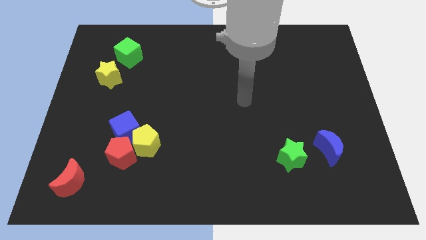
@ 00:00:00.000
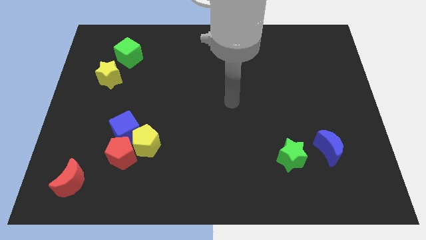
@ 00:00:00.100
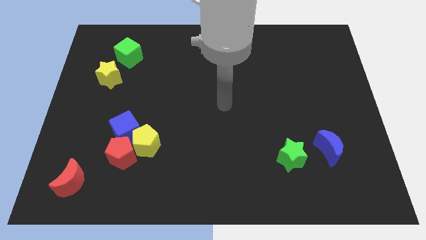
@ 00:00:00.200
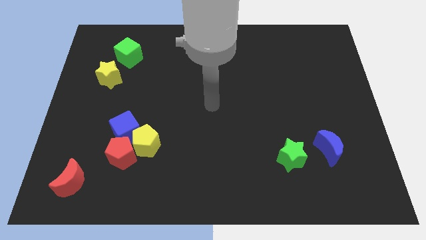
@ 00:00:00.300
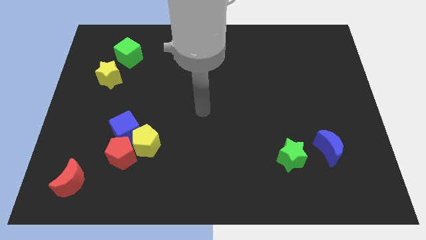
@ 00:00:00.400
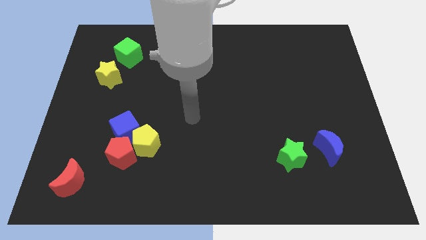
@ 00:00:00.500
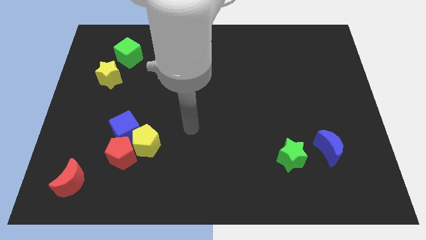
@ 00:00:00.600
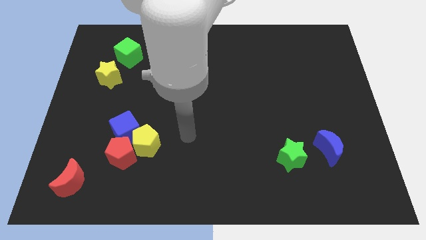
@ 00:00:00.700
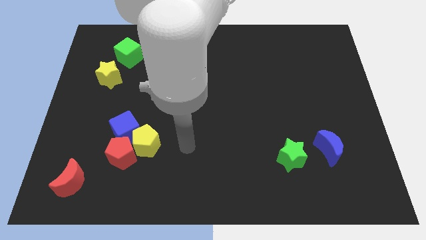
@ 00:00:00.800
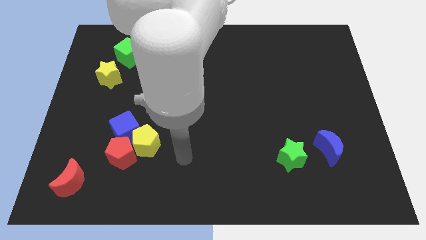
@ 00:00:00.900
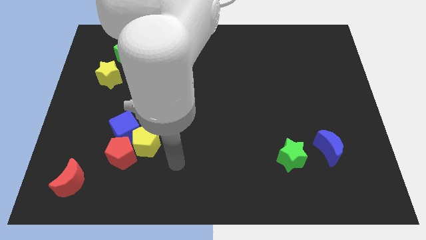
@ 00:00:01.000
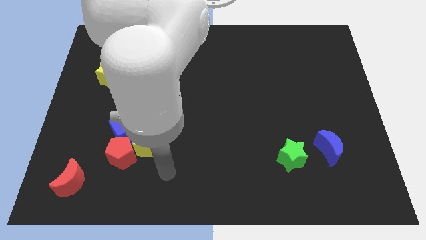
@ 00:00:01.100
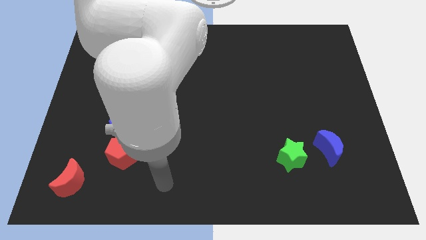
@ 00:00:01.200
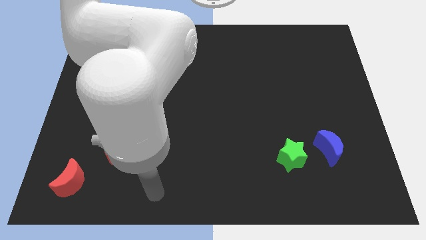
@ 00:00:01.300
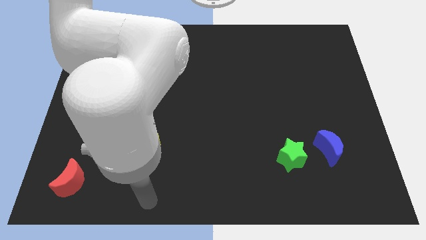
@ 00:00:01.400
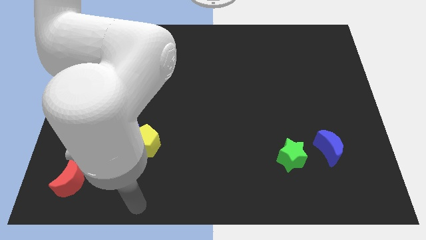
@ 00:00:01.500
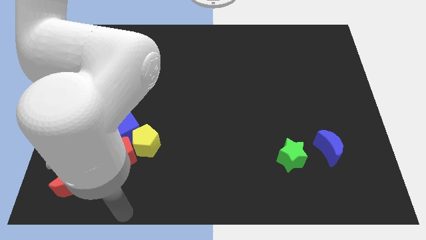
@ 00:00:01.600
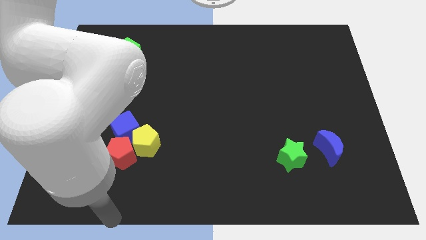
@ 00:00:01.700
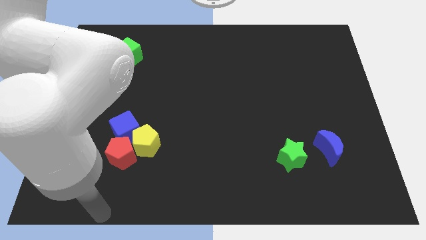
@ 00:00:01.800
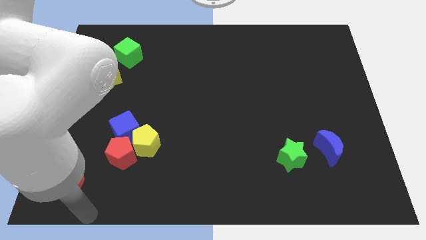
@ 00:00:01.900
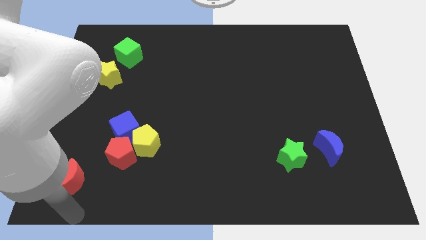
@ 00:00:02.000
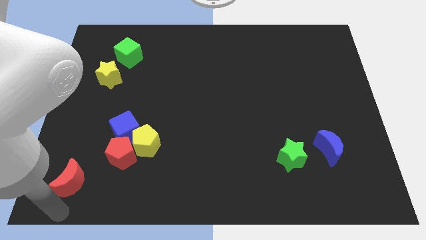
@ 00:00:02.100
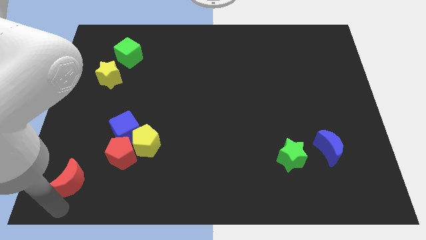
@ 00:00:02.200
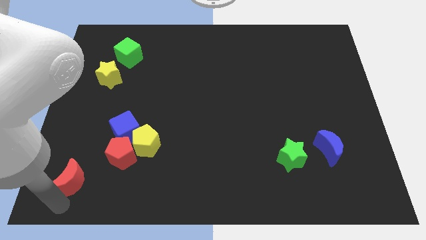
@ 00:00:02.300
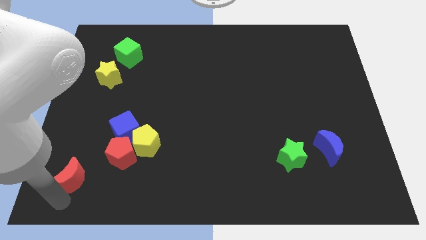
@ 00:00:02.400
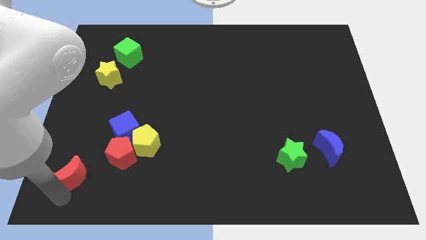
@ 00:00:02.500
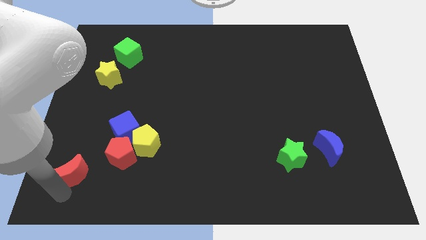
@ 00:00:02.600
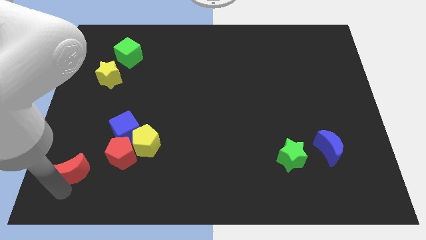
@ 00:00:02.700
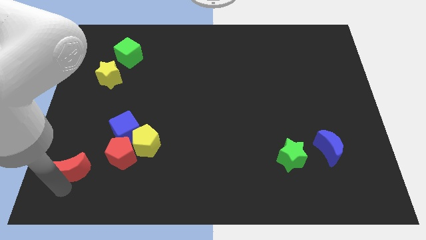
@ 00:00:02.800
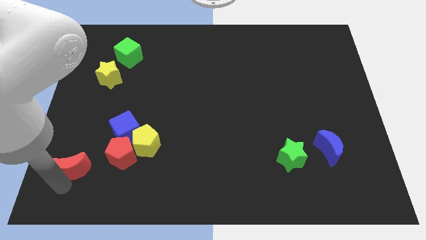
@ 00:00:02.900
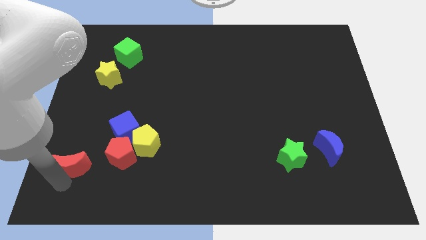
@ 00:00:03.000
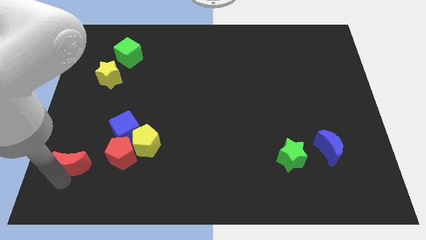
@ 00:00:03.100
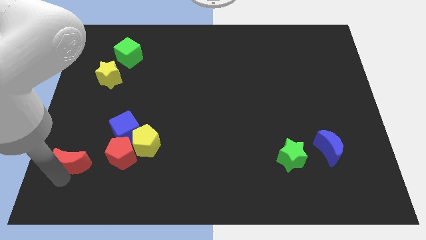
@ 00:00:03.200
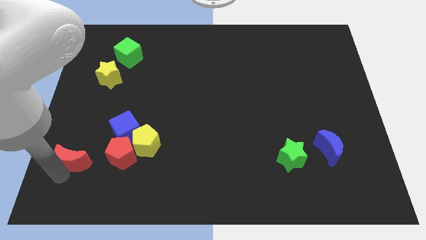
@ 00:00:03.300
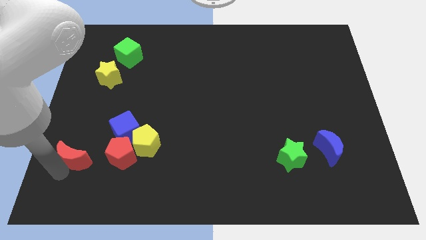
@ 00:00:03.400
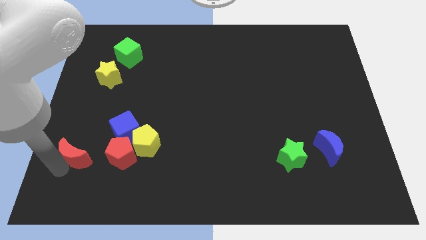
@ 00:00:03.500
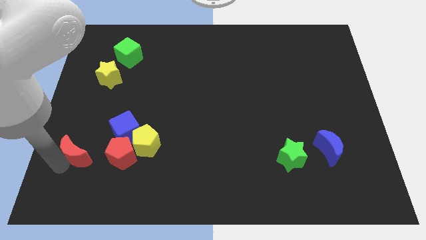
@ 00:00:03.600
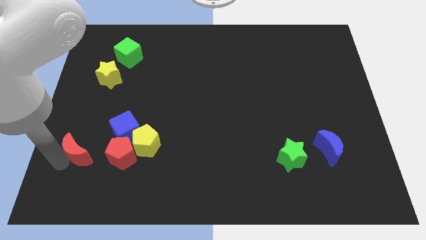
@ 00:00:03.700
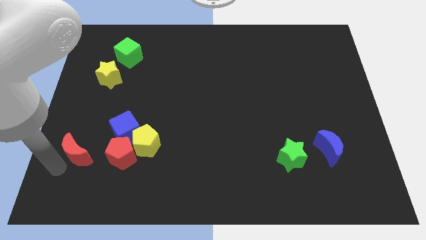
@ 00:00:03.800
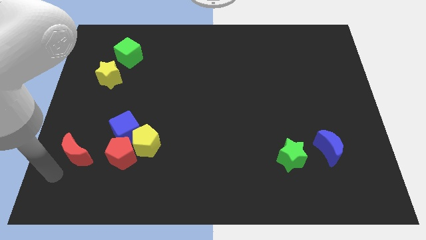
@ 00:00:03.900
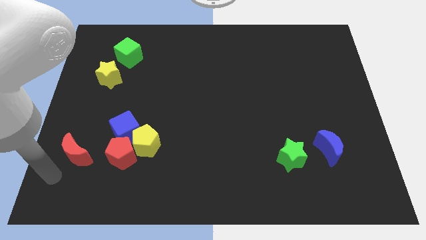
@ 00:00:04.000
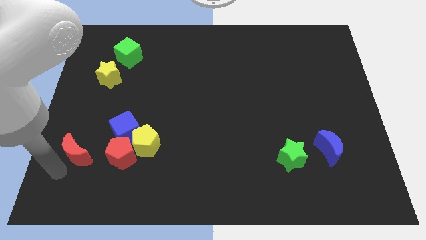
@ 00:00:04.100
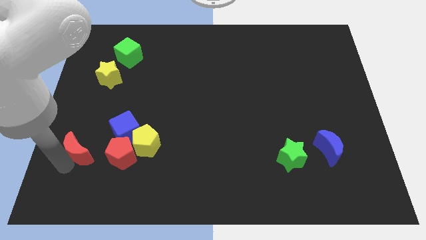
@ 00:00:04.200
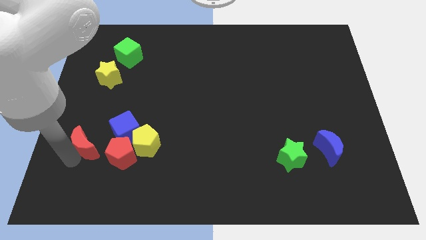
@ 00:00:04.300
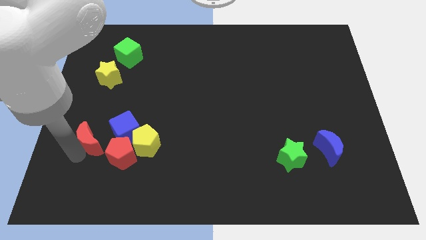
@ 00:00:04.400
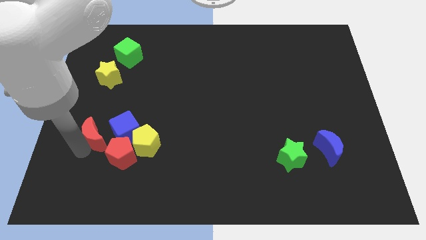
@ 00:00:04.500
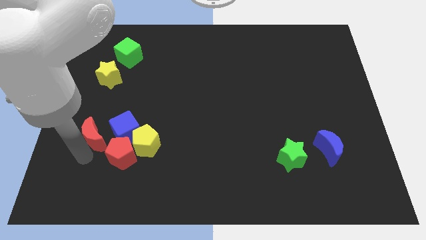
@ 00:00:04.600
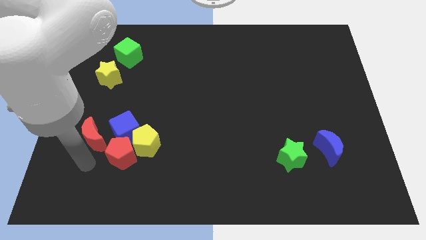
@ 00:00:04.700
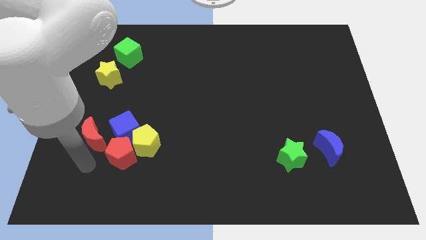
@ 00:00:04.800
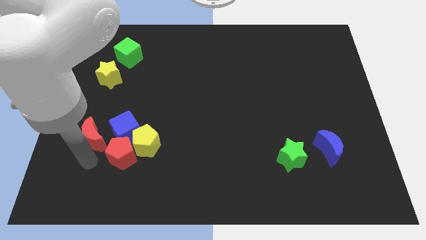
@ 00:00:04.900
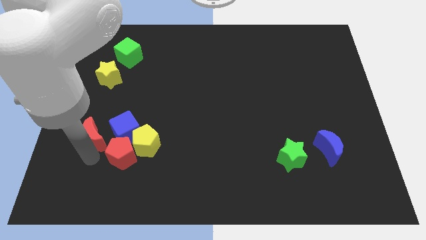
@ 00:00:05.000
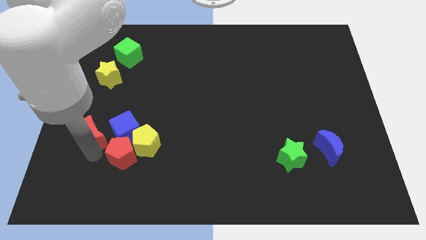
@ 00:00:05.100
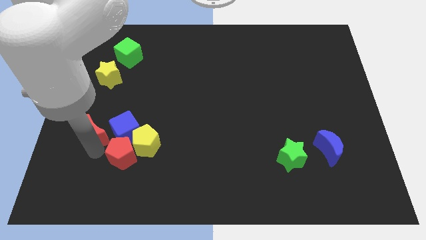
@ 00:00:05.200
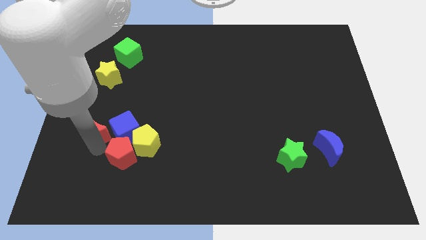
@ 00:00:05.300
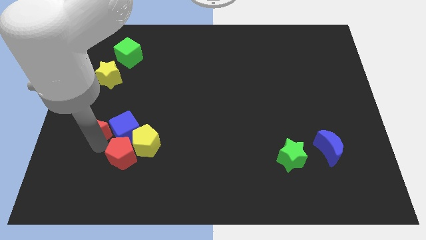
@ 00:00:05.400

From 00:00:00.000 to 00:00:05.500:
put the red moon to the bottom side of the yellow star

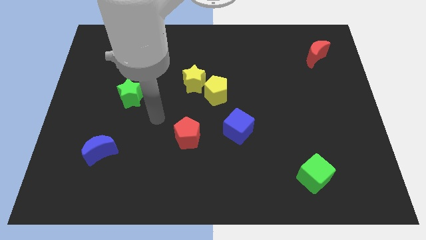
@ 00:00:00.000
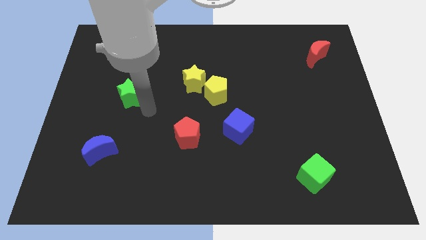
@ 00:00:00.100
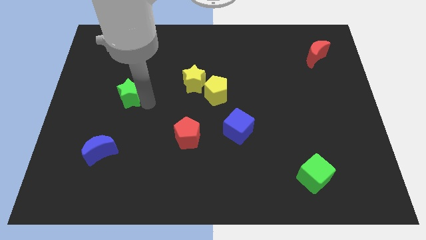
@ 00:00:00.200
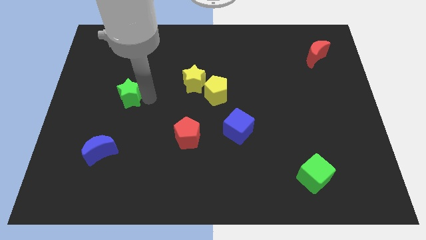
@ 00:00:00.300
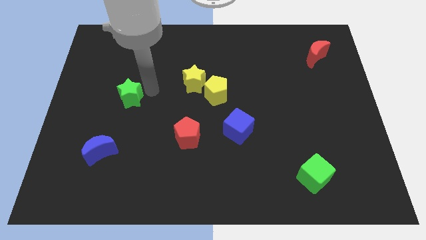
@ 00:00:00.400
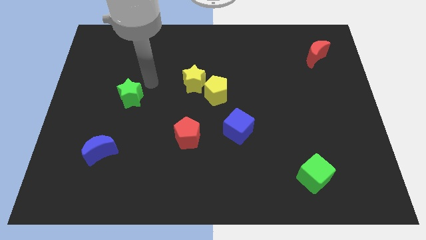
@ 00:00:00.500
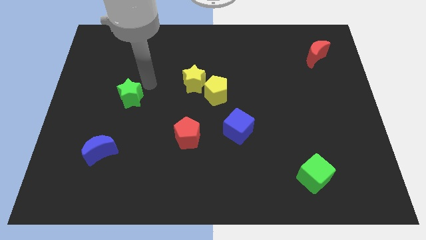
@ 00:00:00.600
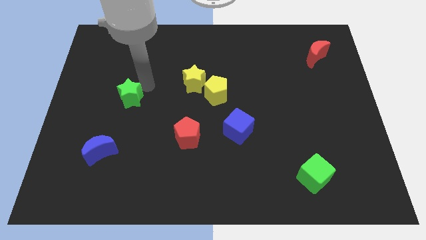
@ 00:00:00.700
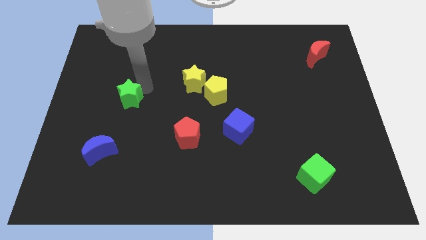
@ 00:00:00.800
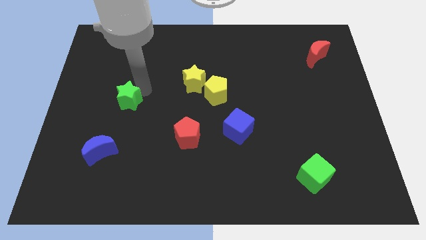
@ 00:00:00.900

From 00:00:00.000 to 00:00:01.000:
put the green star above the blue moon
